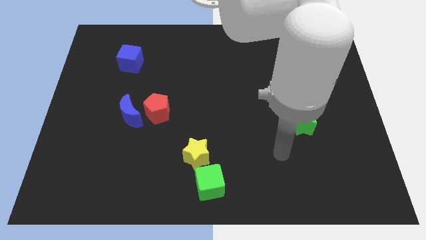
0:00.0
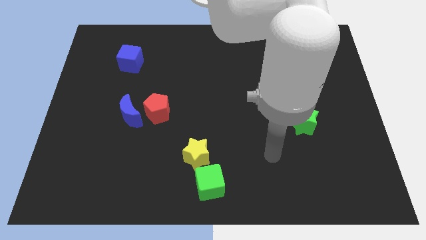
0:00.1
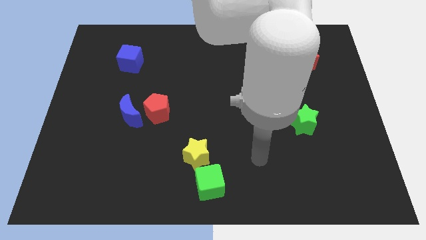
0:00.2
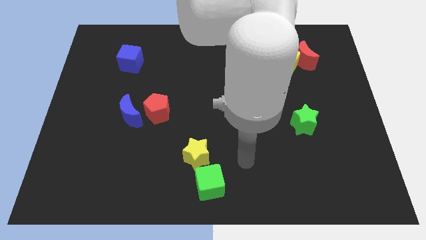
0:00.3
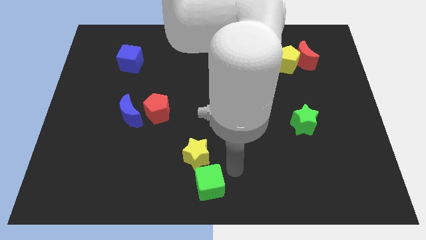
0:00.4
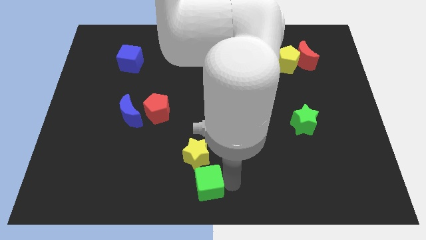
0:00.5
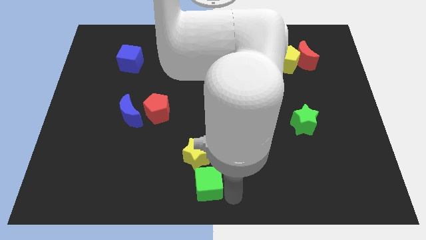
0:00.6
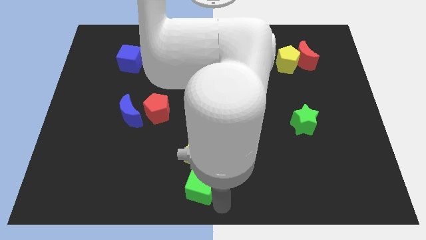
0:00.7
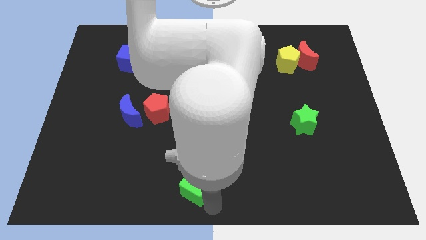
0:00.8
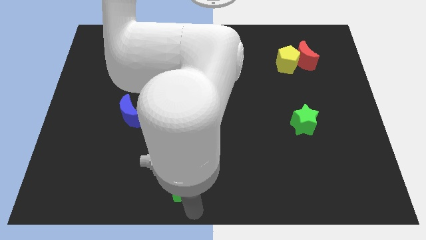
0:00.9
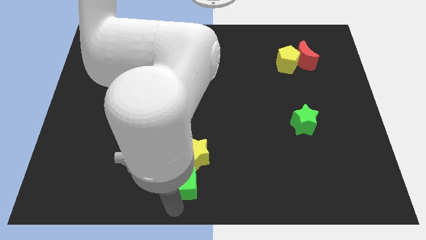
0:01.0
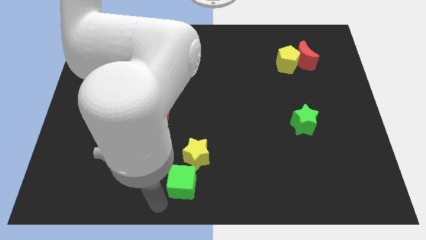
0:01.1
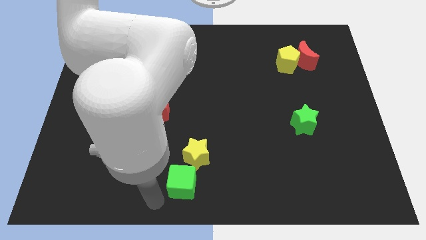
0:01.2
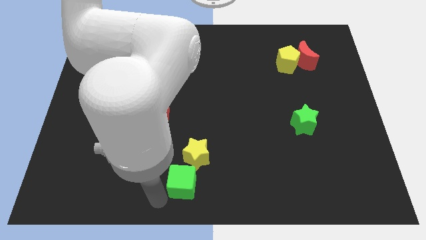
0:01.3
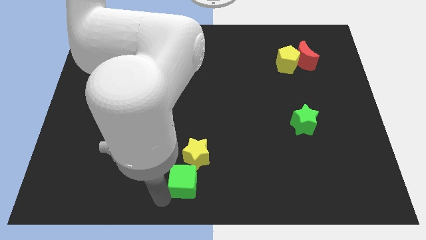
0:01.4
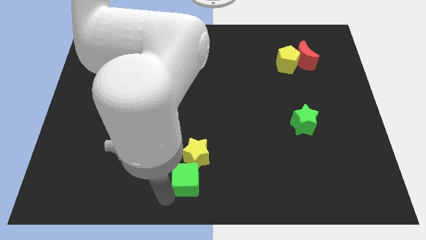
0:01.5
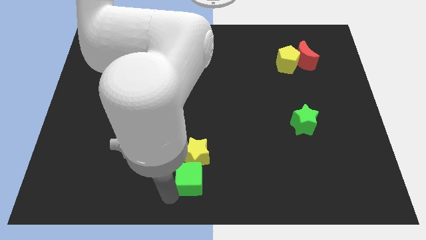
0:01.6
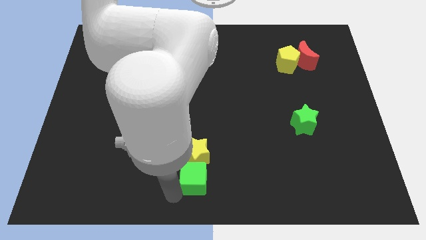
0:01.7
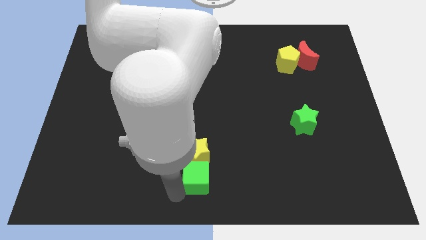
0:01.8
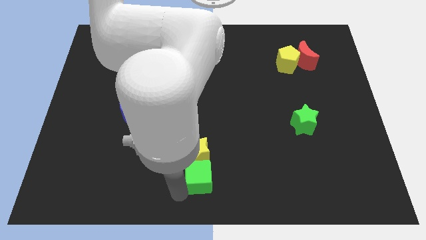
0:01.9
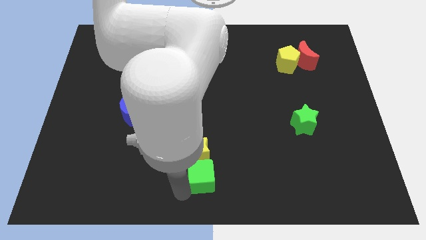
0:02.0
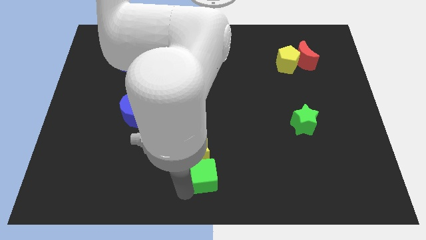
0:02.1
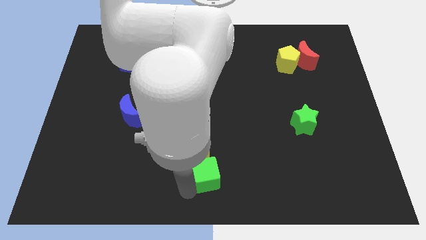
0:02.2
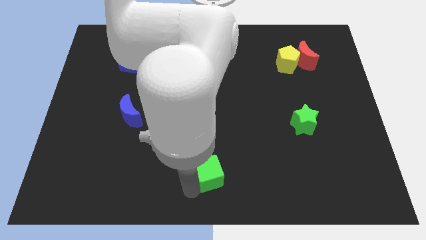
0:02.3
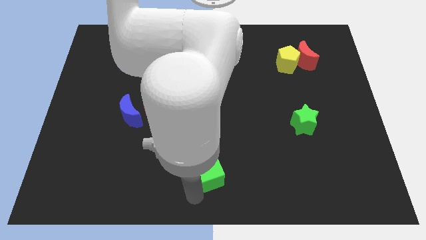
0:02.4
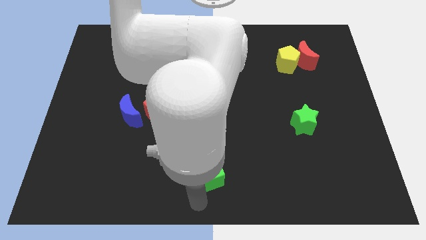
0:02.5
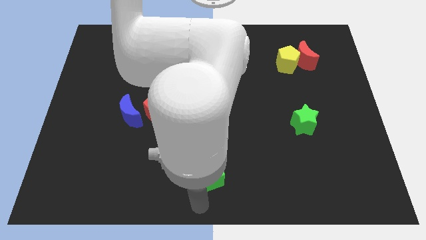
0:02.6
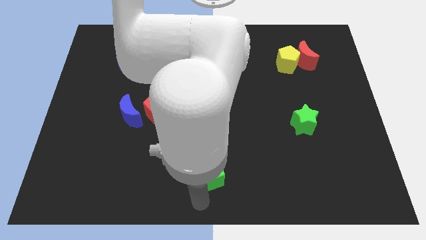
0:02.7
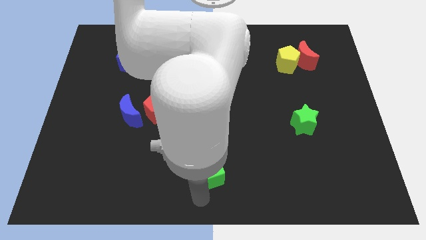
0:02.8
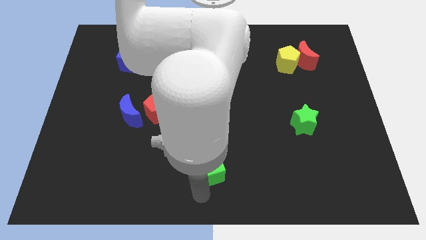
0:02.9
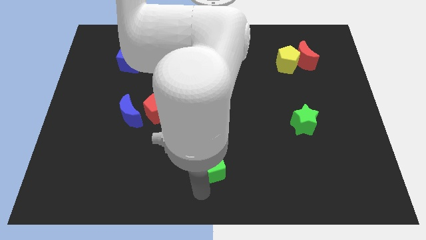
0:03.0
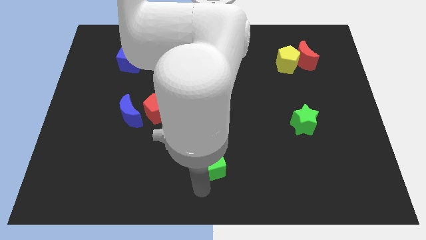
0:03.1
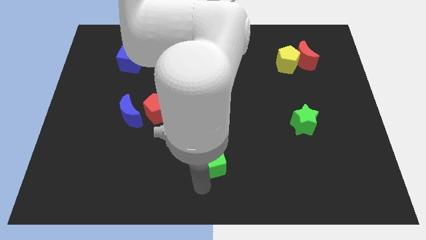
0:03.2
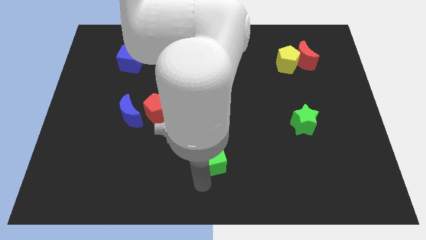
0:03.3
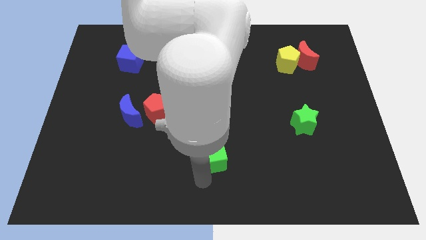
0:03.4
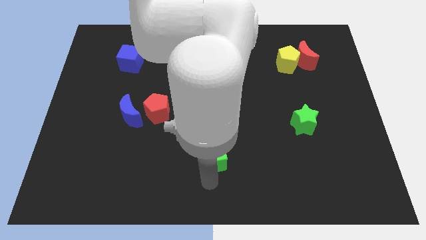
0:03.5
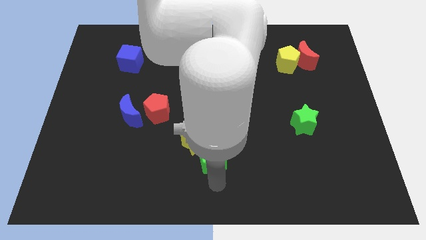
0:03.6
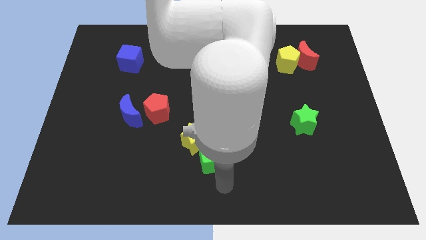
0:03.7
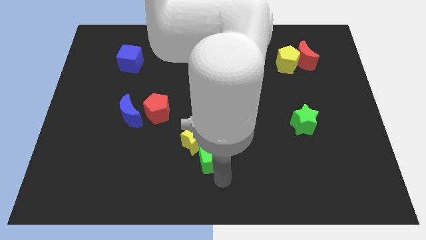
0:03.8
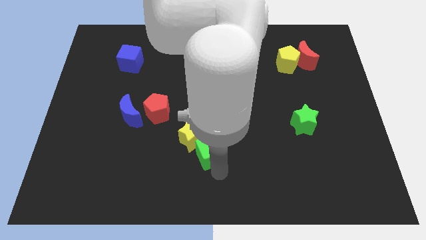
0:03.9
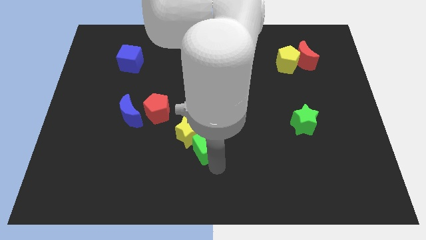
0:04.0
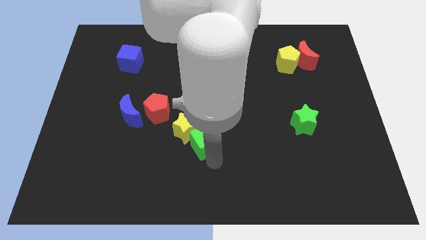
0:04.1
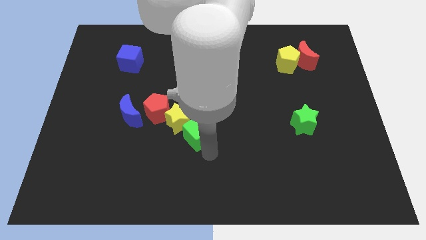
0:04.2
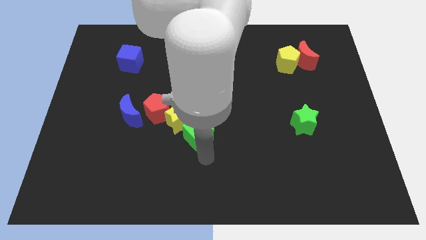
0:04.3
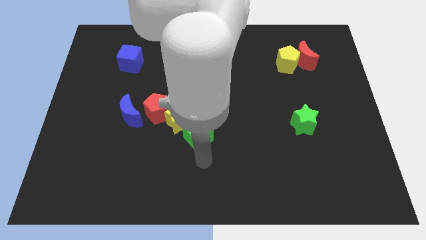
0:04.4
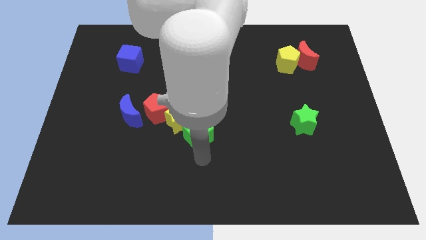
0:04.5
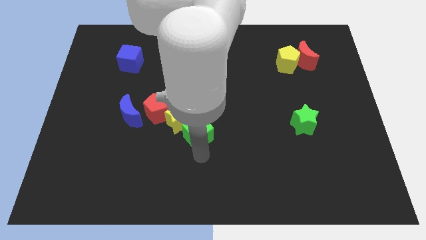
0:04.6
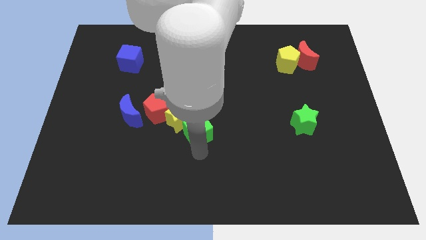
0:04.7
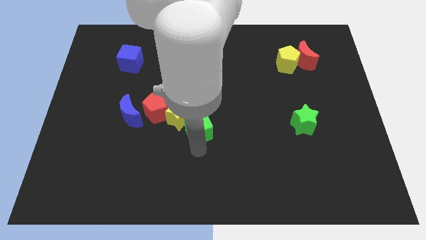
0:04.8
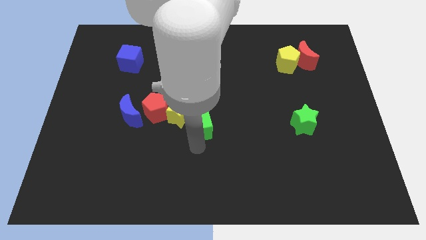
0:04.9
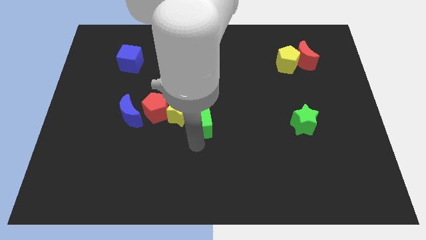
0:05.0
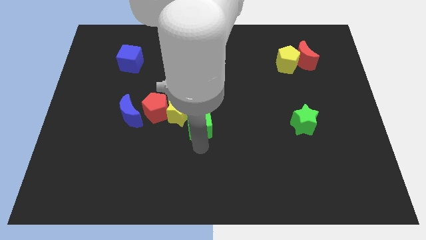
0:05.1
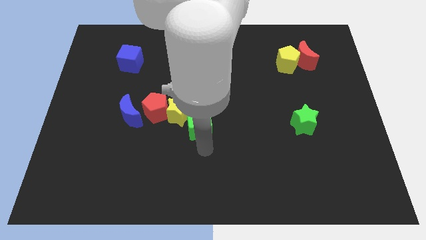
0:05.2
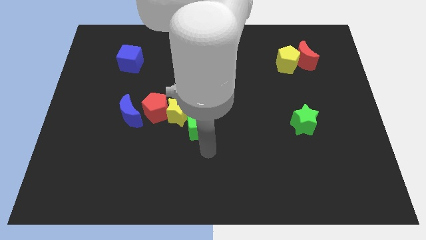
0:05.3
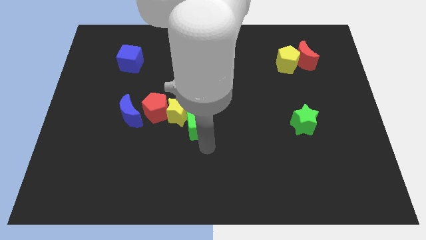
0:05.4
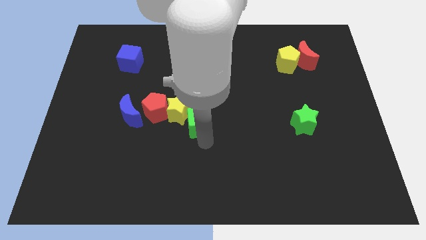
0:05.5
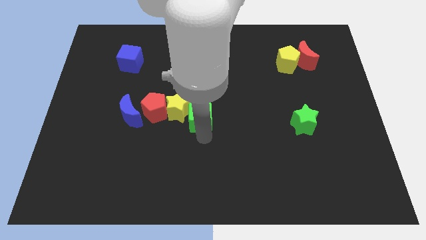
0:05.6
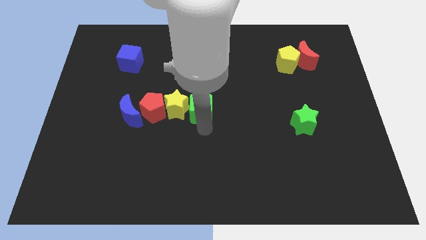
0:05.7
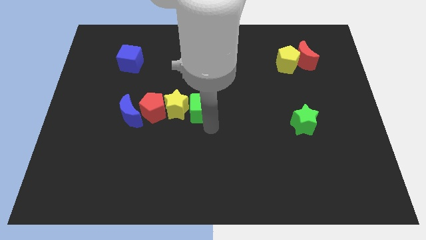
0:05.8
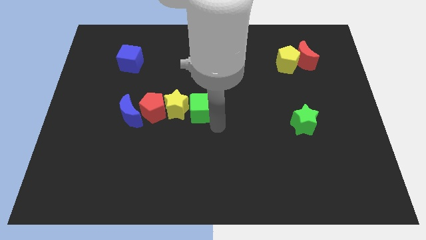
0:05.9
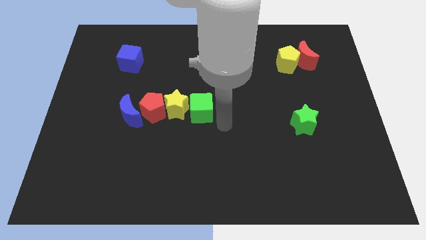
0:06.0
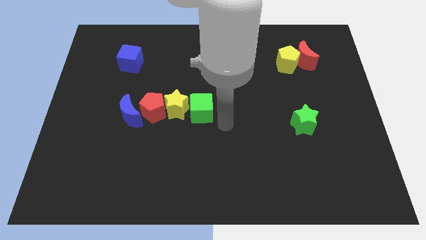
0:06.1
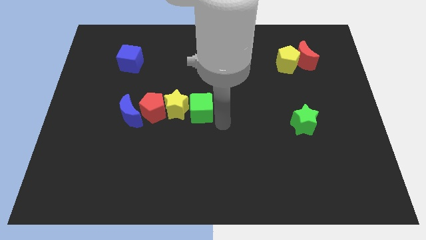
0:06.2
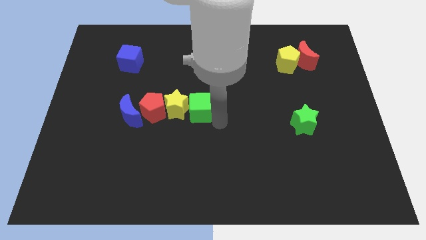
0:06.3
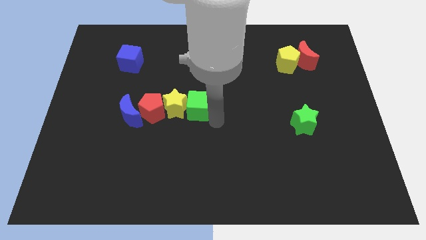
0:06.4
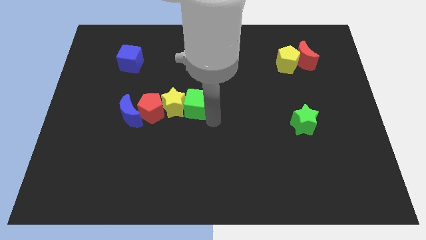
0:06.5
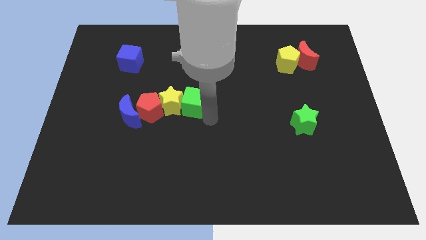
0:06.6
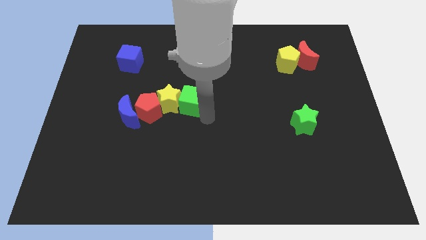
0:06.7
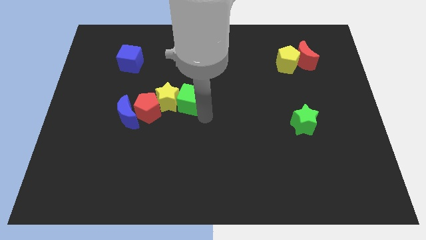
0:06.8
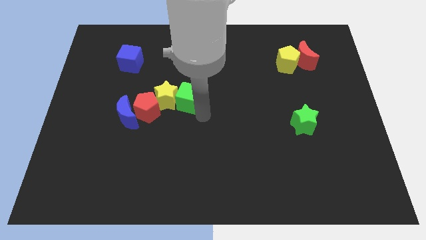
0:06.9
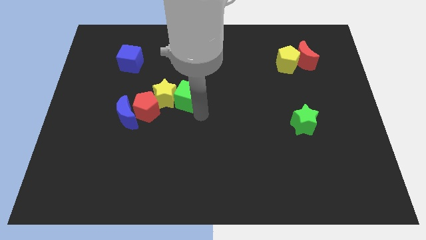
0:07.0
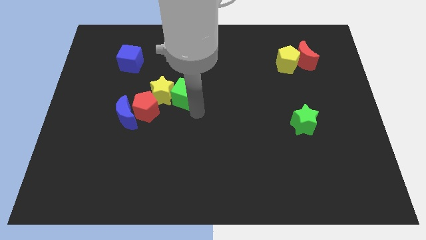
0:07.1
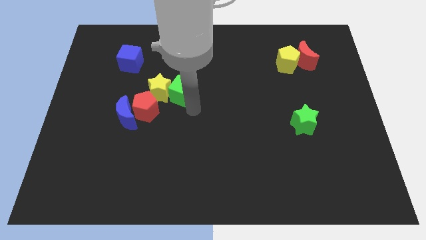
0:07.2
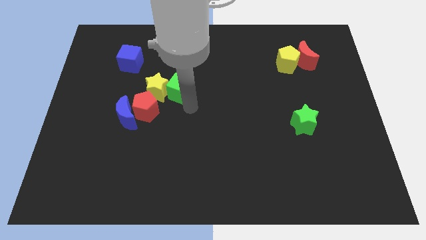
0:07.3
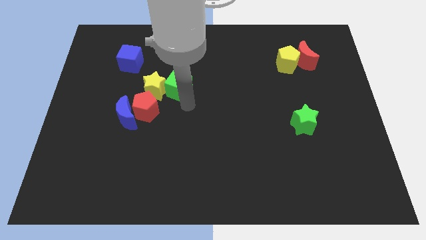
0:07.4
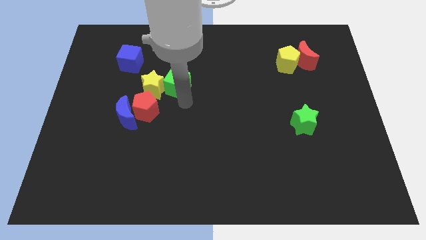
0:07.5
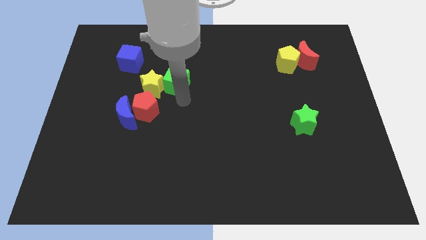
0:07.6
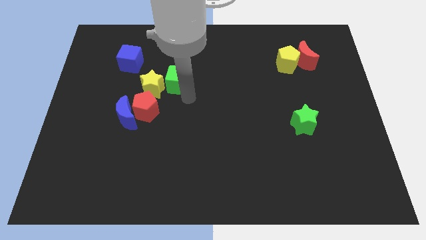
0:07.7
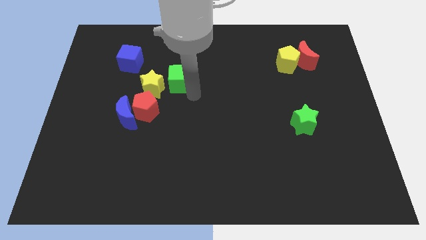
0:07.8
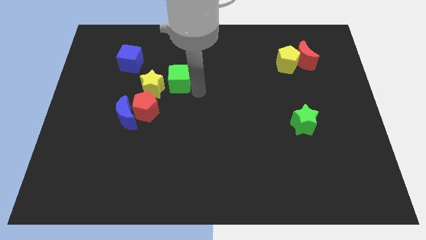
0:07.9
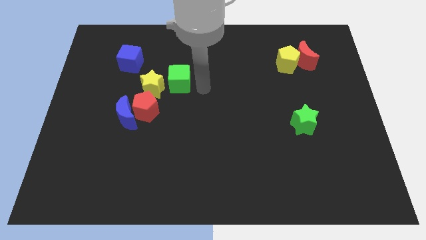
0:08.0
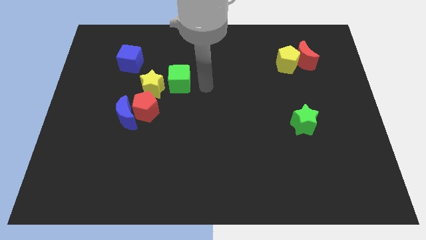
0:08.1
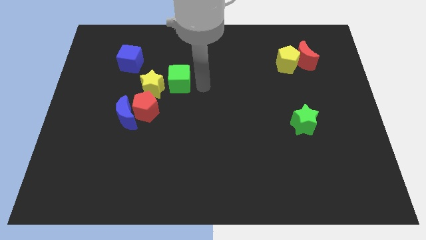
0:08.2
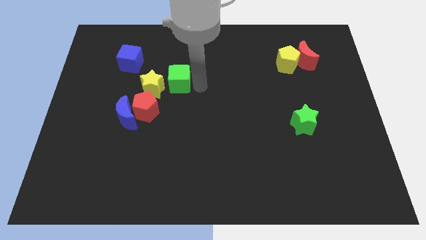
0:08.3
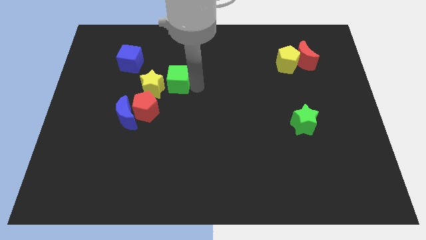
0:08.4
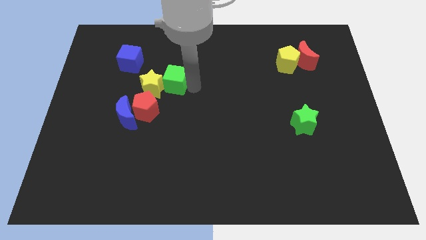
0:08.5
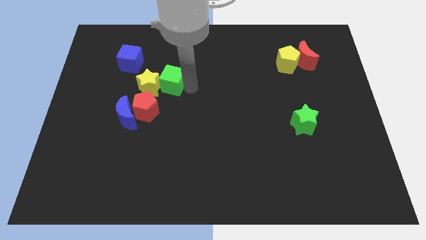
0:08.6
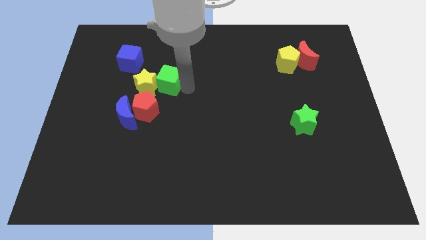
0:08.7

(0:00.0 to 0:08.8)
move the green cube to the top of the red pentagon
